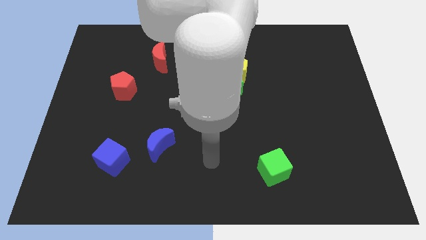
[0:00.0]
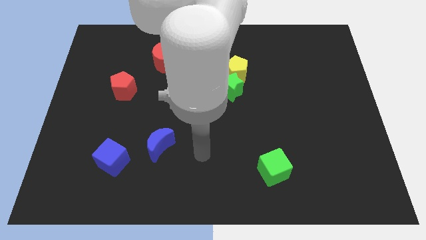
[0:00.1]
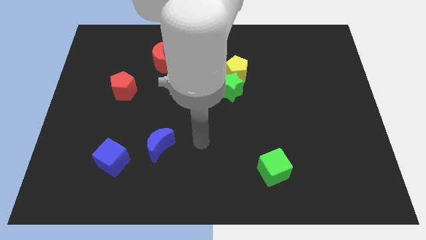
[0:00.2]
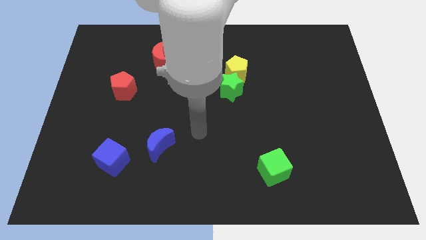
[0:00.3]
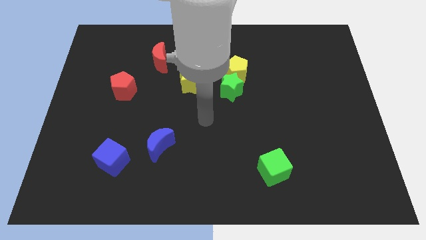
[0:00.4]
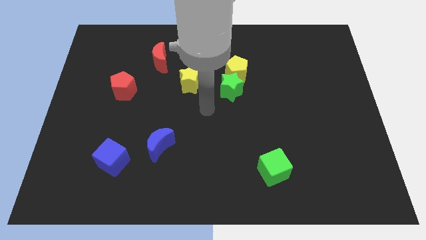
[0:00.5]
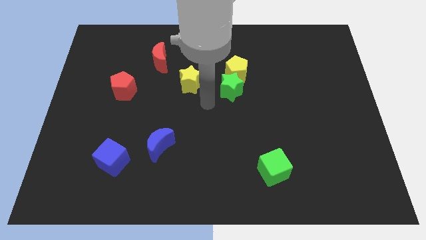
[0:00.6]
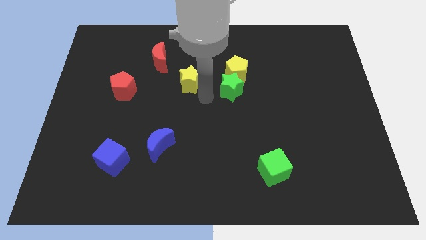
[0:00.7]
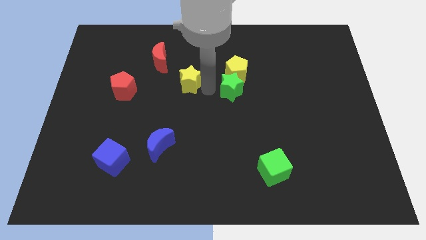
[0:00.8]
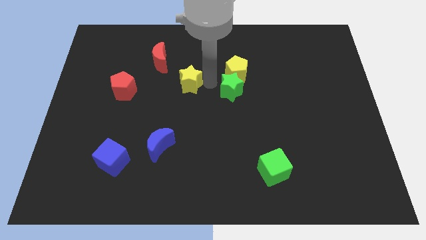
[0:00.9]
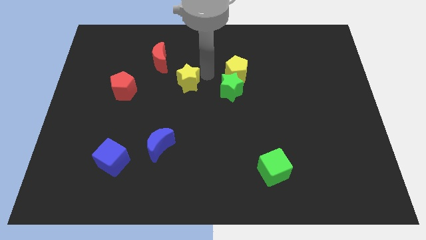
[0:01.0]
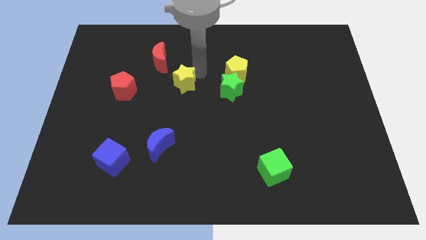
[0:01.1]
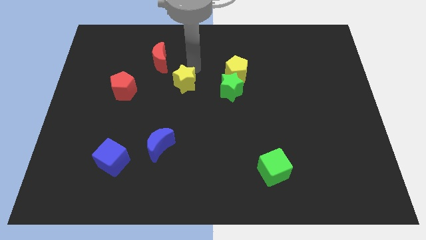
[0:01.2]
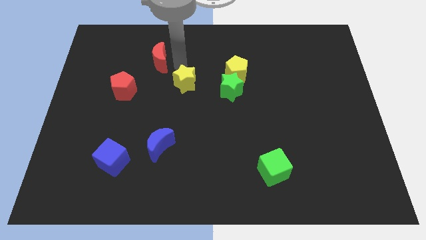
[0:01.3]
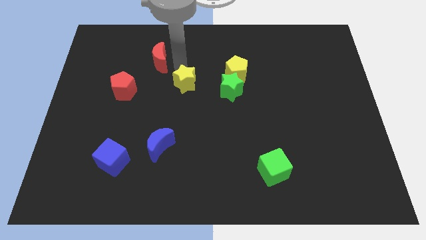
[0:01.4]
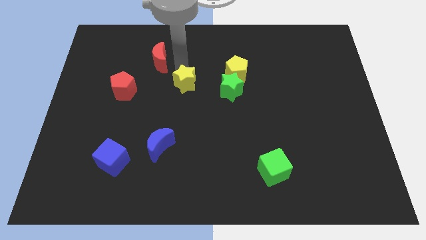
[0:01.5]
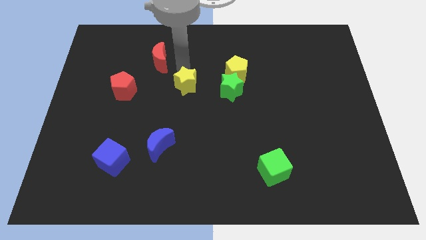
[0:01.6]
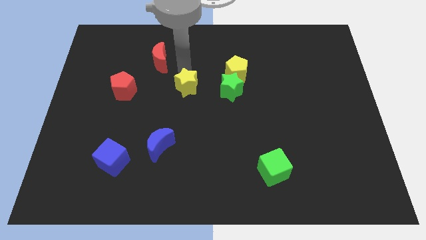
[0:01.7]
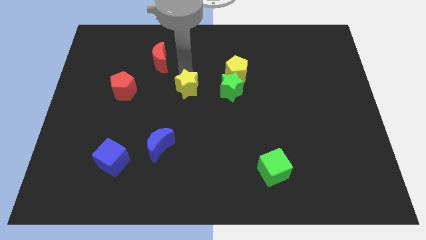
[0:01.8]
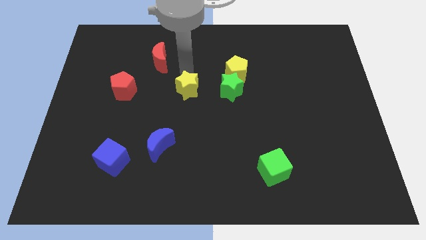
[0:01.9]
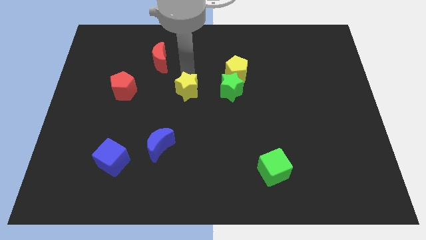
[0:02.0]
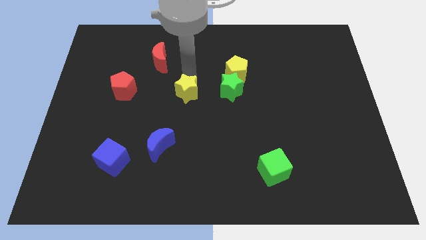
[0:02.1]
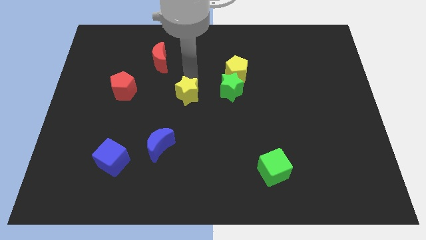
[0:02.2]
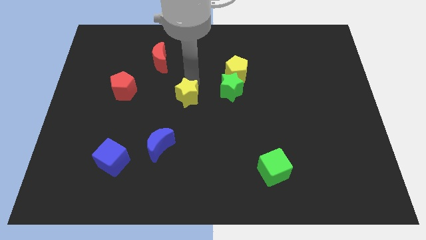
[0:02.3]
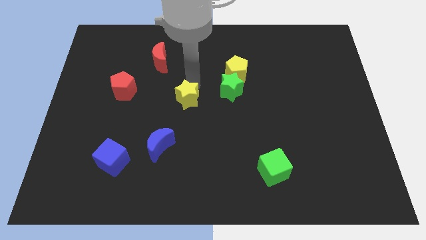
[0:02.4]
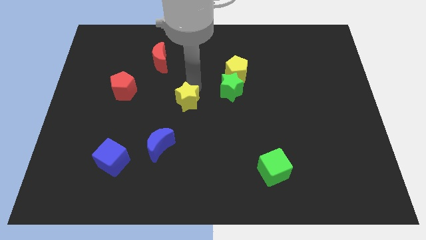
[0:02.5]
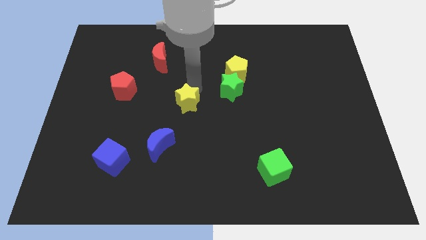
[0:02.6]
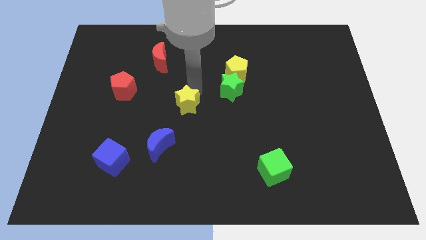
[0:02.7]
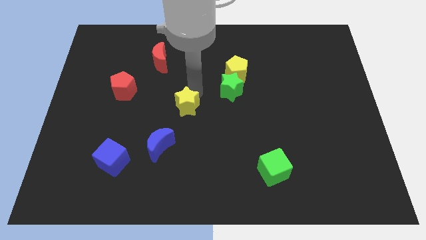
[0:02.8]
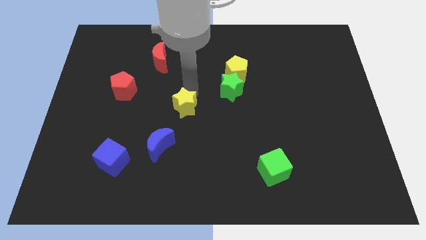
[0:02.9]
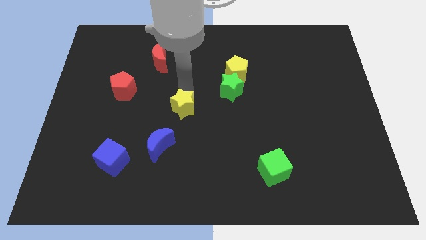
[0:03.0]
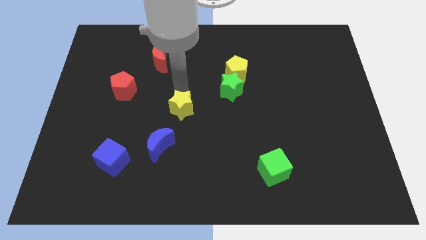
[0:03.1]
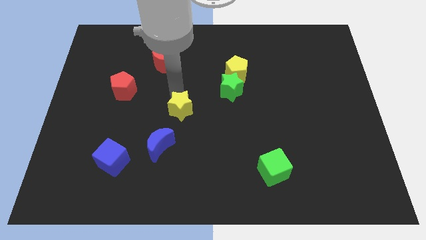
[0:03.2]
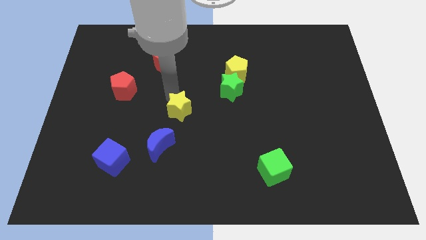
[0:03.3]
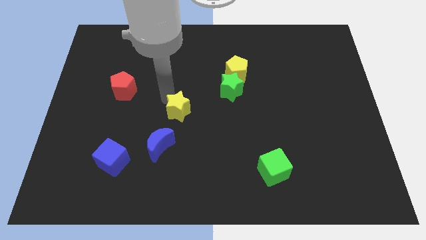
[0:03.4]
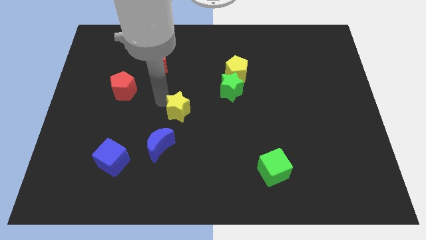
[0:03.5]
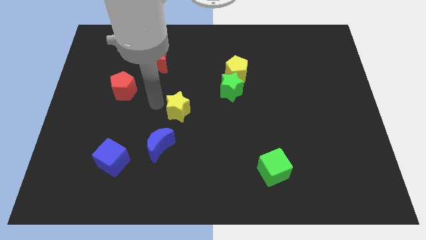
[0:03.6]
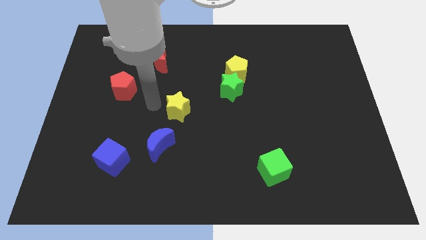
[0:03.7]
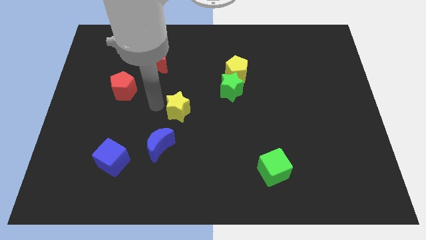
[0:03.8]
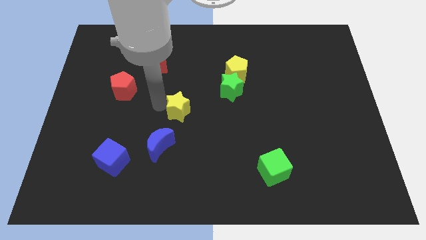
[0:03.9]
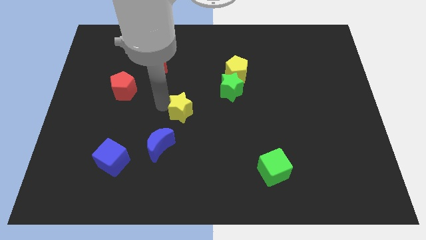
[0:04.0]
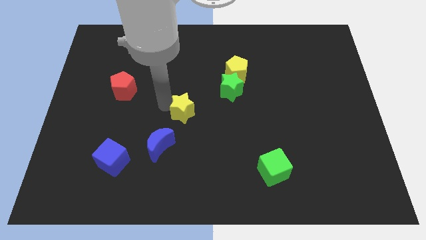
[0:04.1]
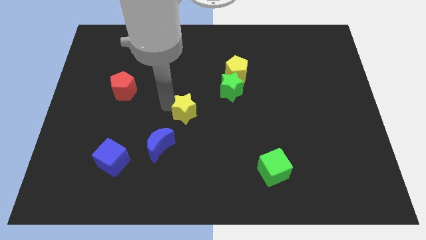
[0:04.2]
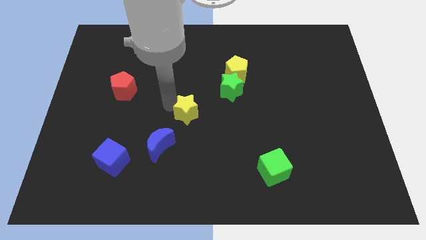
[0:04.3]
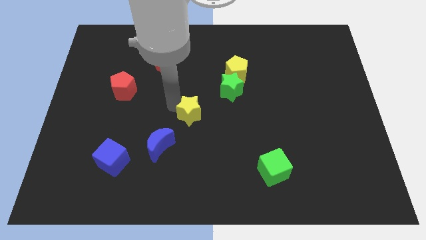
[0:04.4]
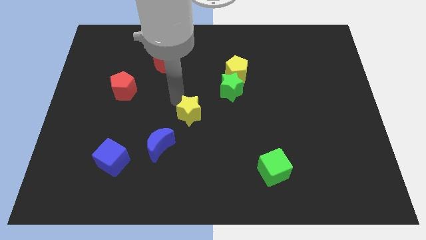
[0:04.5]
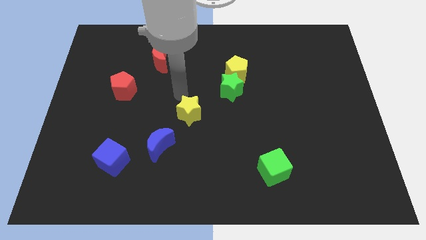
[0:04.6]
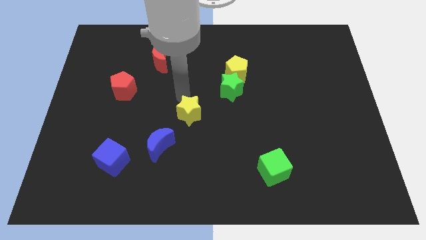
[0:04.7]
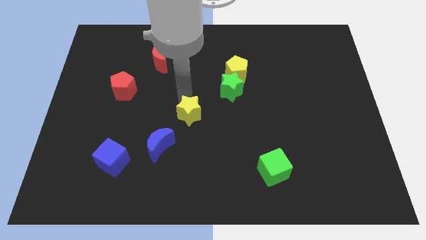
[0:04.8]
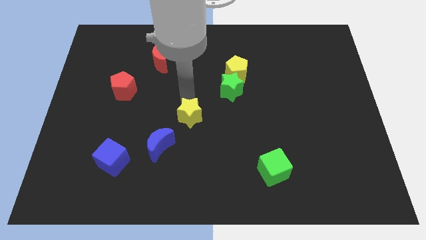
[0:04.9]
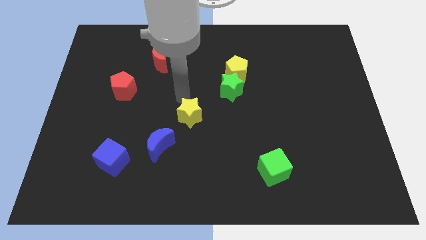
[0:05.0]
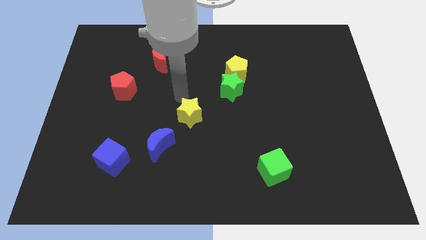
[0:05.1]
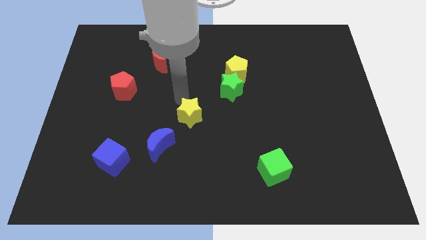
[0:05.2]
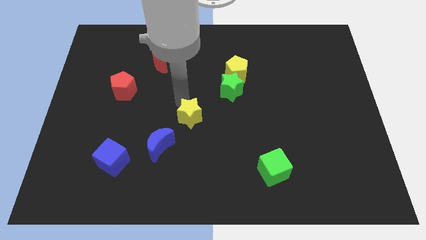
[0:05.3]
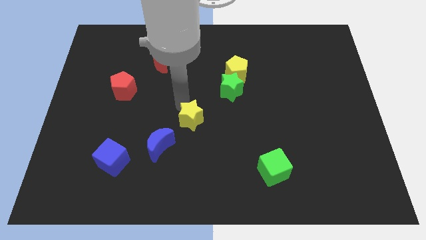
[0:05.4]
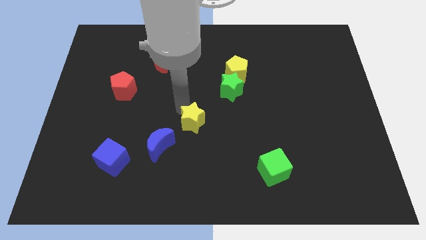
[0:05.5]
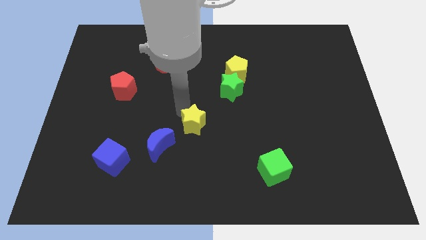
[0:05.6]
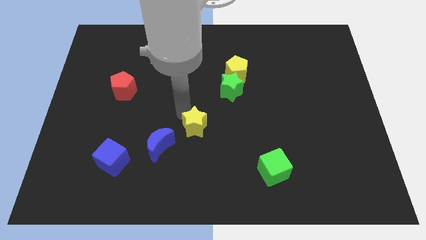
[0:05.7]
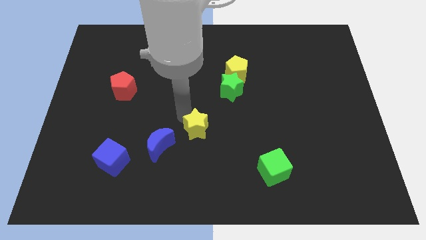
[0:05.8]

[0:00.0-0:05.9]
put the yellow star to the right side of the blue moon

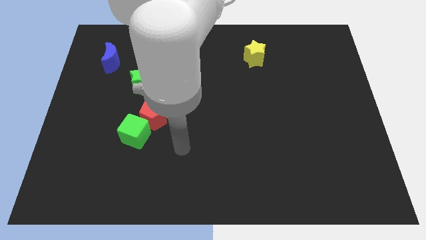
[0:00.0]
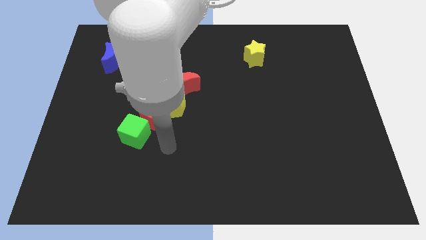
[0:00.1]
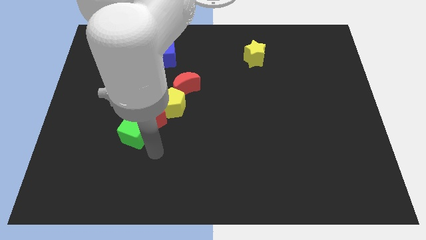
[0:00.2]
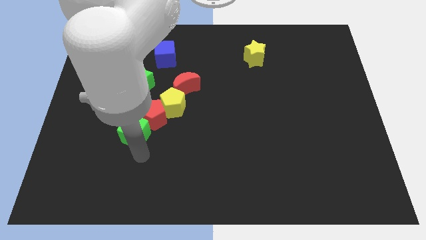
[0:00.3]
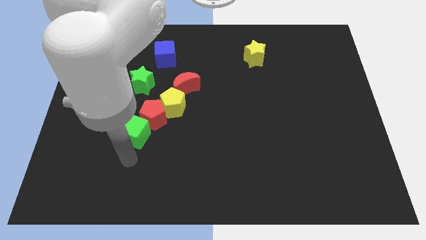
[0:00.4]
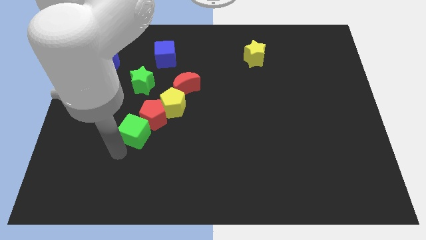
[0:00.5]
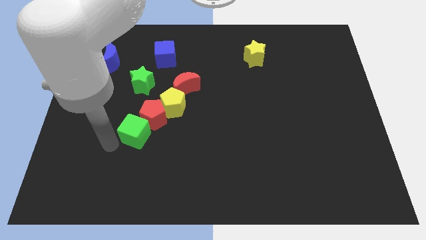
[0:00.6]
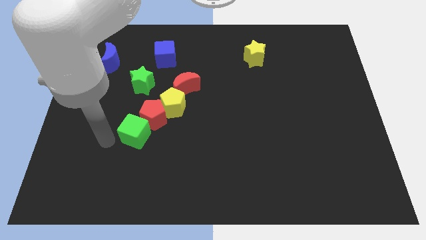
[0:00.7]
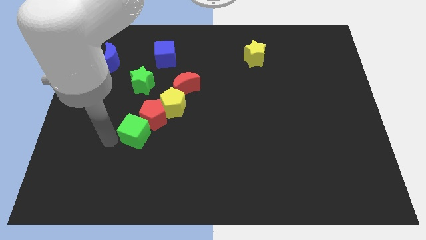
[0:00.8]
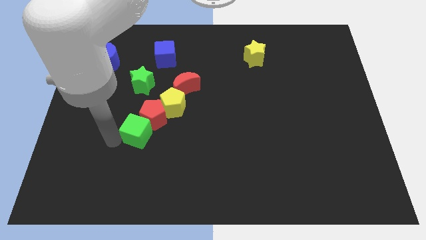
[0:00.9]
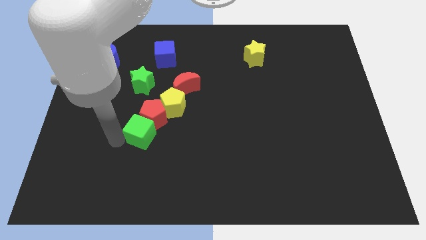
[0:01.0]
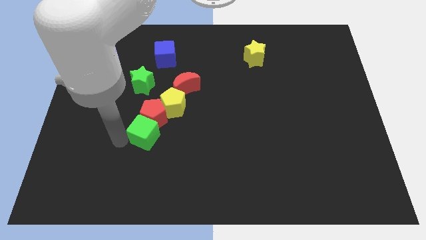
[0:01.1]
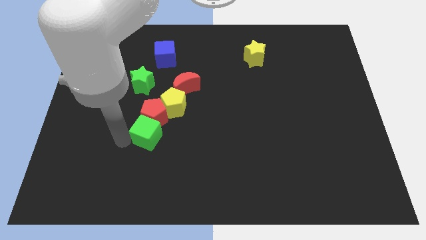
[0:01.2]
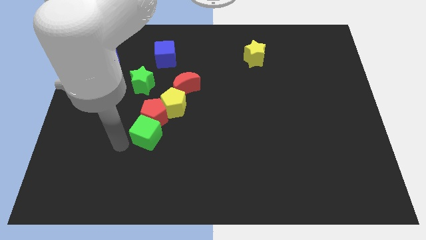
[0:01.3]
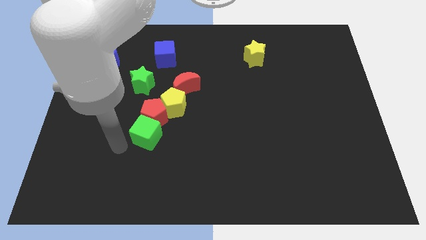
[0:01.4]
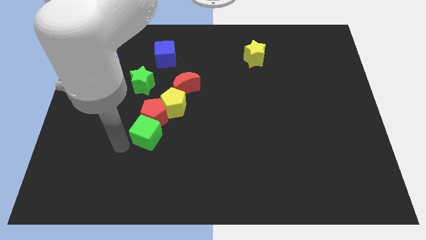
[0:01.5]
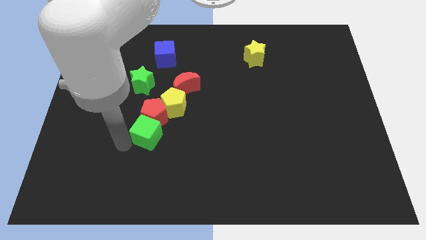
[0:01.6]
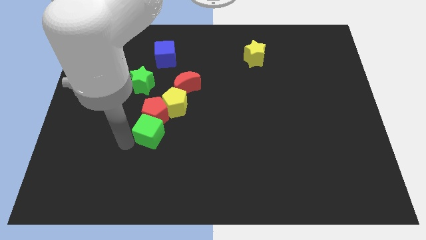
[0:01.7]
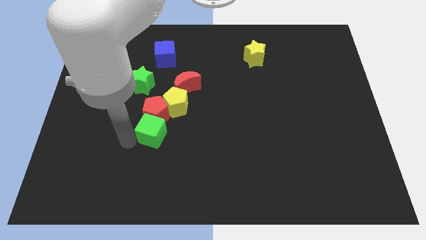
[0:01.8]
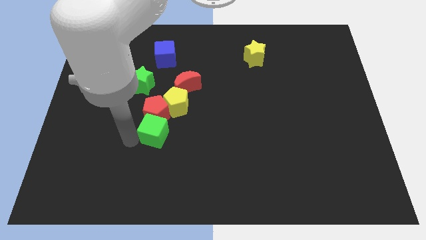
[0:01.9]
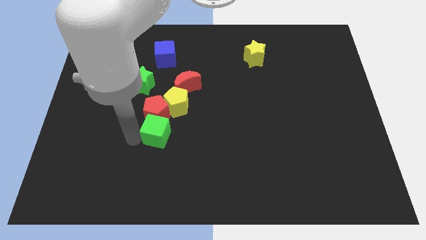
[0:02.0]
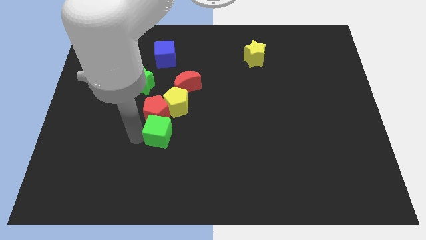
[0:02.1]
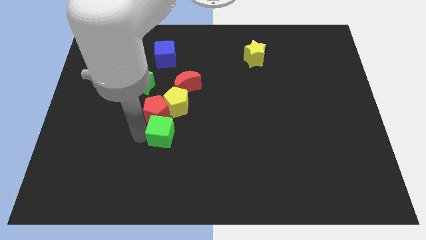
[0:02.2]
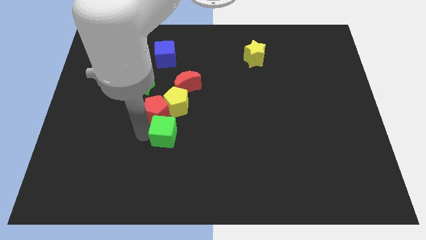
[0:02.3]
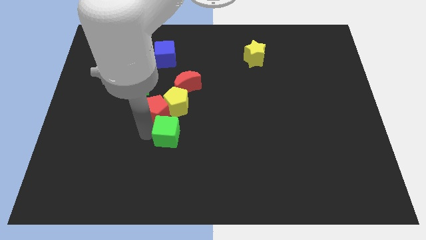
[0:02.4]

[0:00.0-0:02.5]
put the green cube below the red moon
